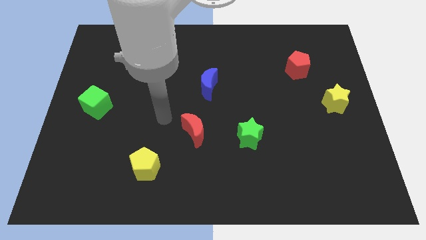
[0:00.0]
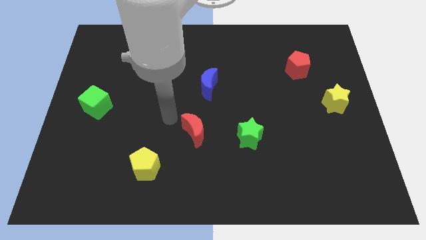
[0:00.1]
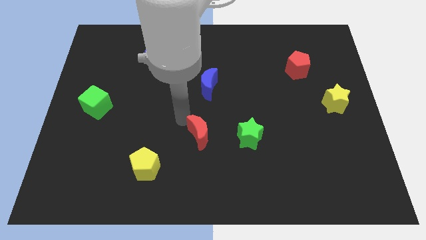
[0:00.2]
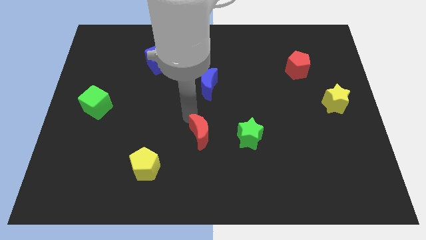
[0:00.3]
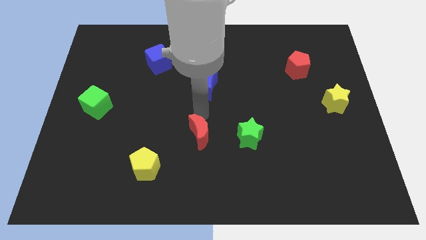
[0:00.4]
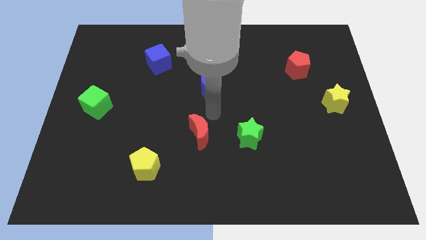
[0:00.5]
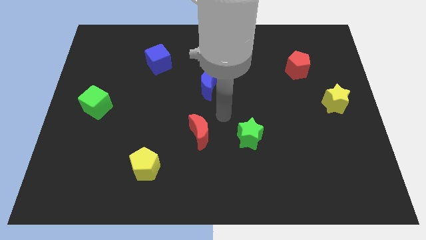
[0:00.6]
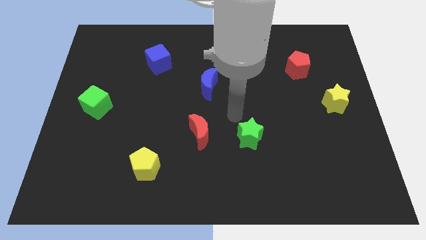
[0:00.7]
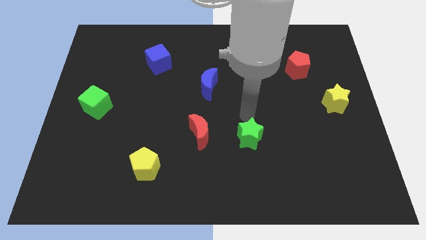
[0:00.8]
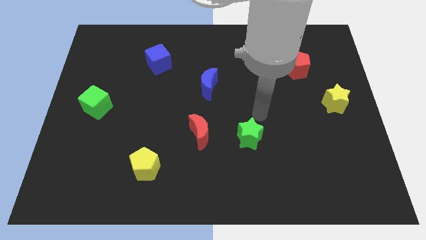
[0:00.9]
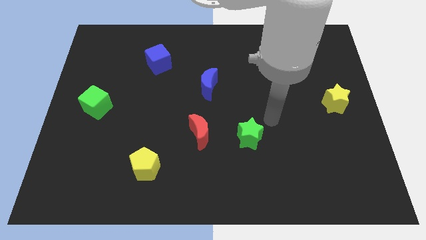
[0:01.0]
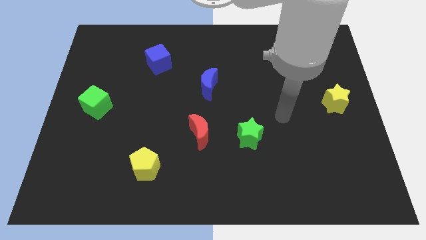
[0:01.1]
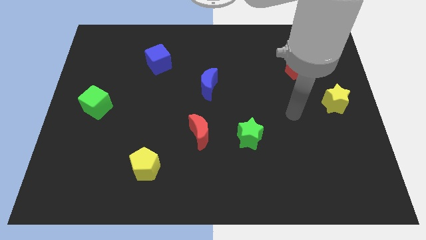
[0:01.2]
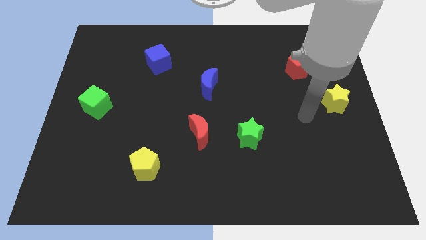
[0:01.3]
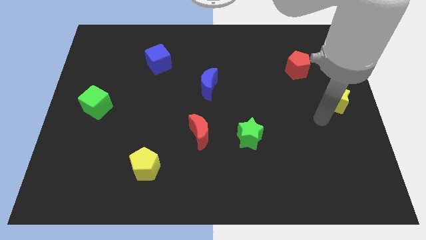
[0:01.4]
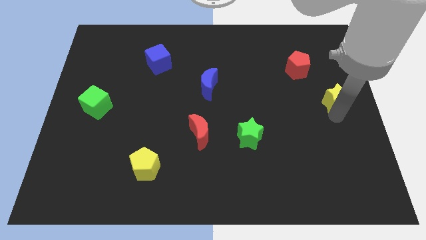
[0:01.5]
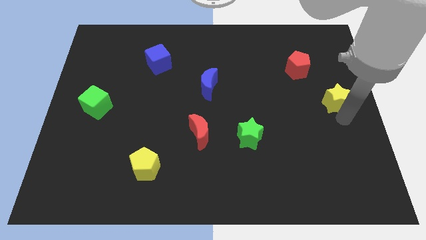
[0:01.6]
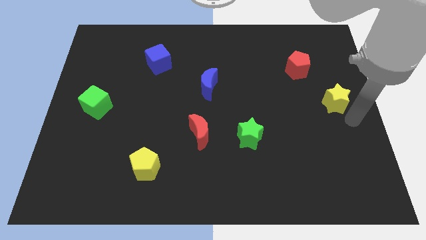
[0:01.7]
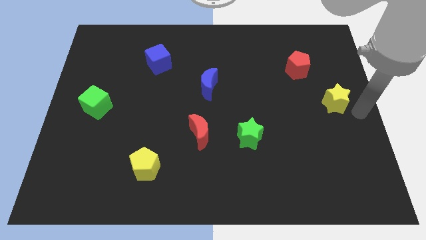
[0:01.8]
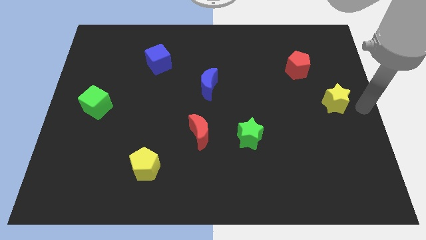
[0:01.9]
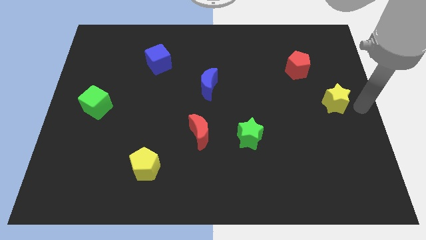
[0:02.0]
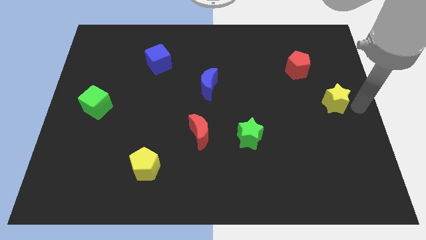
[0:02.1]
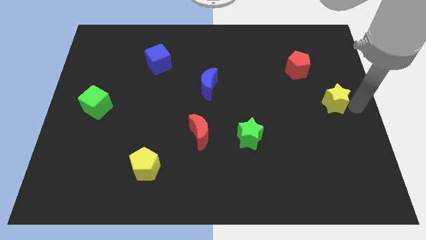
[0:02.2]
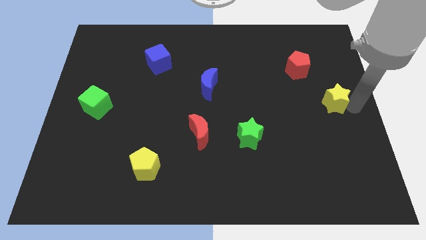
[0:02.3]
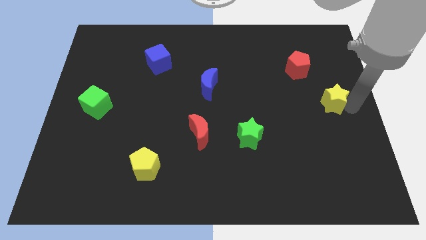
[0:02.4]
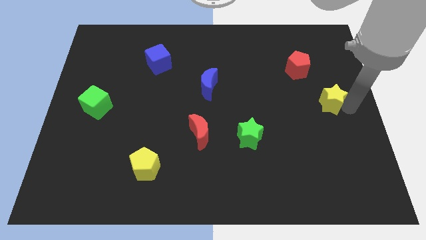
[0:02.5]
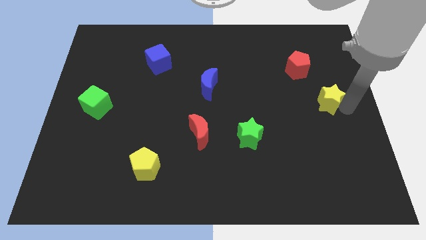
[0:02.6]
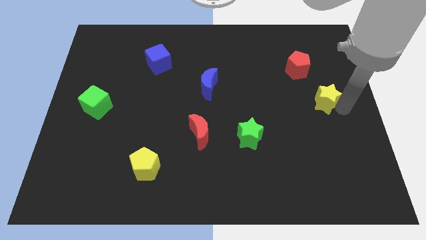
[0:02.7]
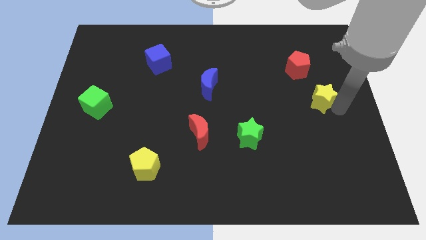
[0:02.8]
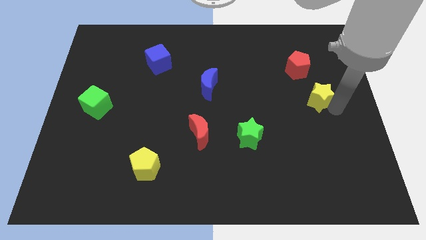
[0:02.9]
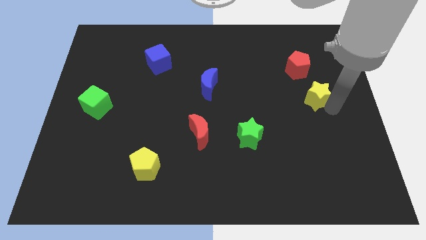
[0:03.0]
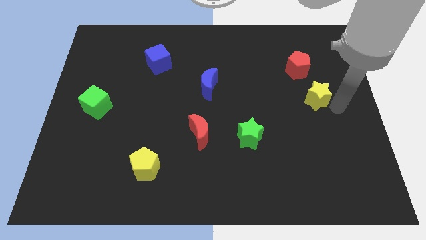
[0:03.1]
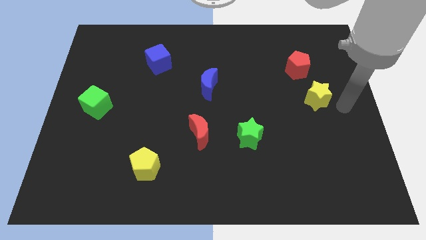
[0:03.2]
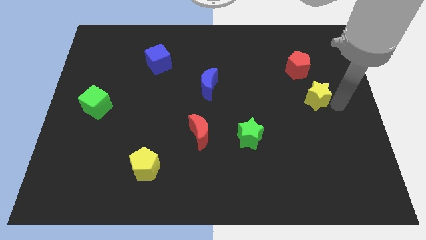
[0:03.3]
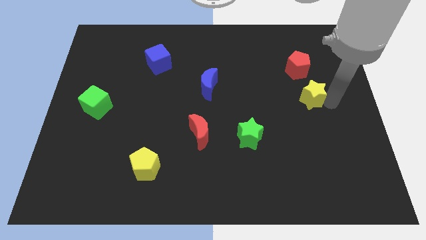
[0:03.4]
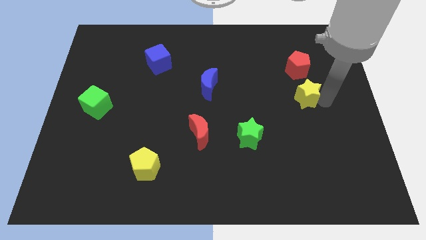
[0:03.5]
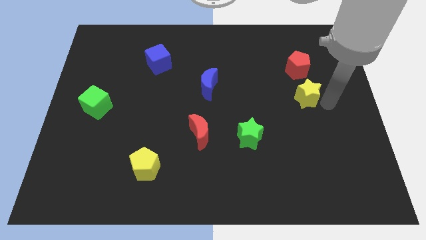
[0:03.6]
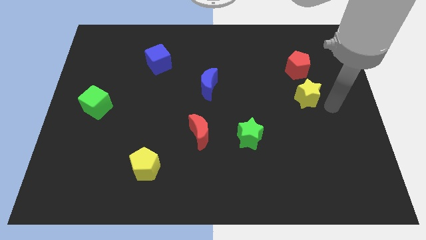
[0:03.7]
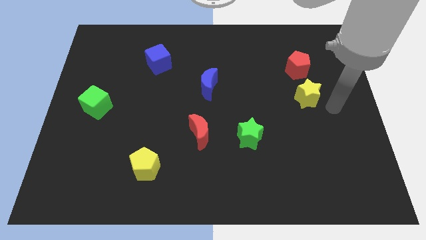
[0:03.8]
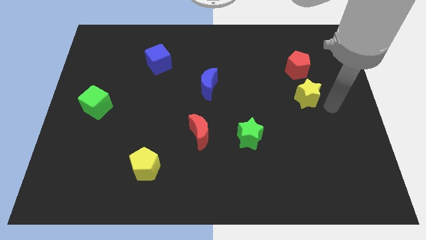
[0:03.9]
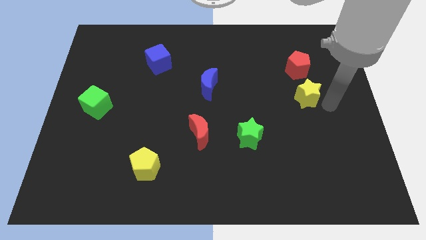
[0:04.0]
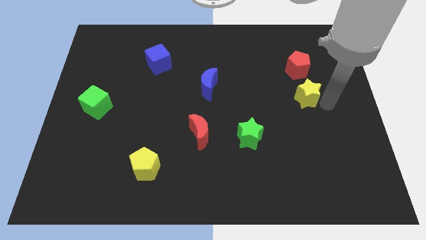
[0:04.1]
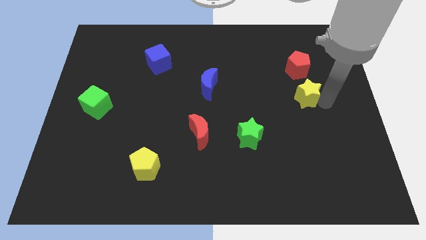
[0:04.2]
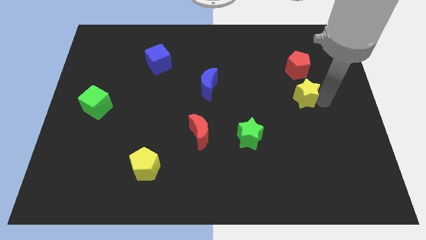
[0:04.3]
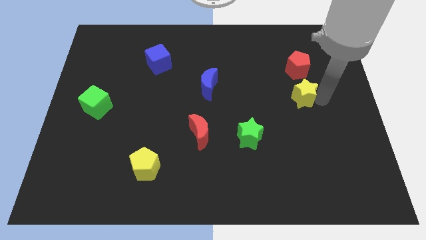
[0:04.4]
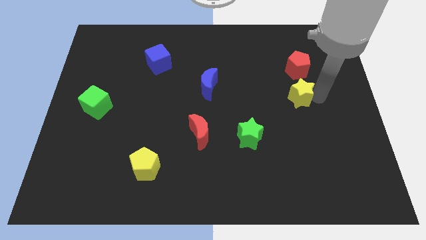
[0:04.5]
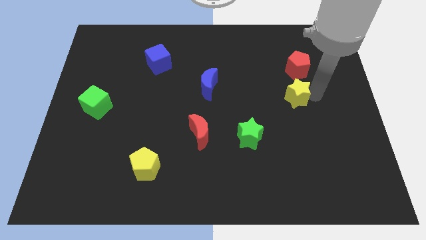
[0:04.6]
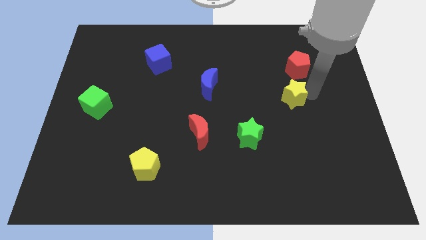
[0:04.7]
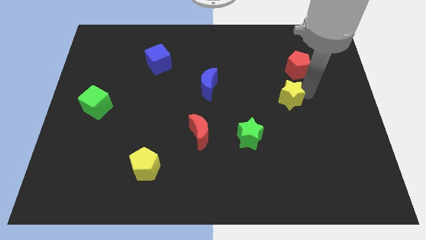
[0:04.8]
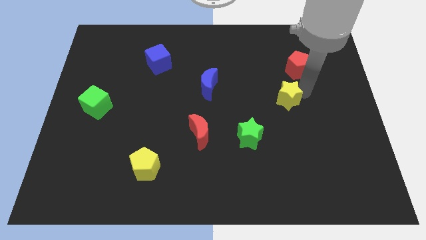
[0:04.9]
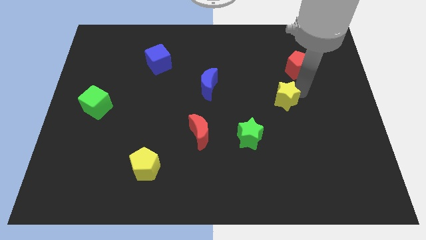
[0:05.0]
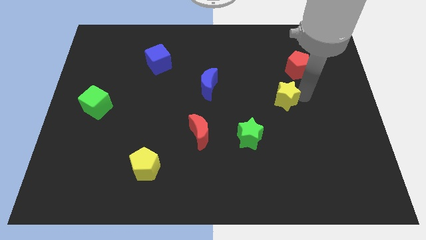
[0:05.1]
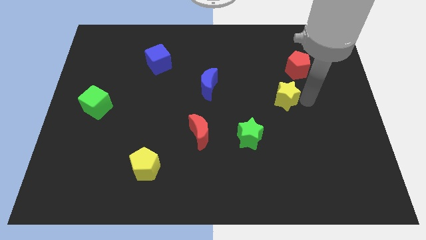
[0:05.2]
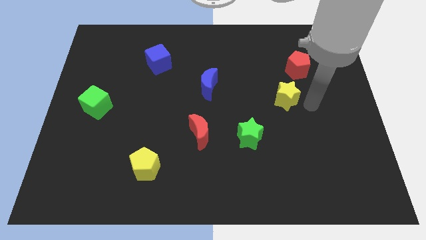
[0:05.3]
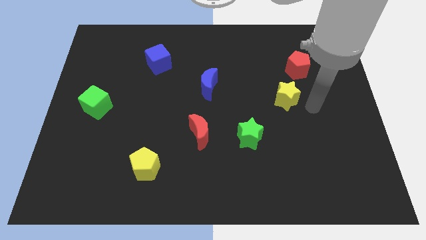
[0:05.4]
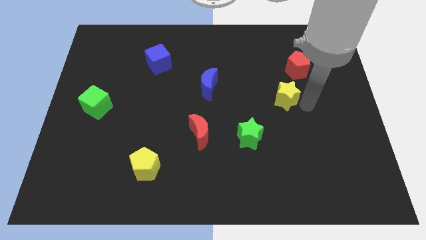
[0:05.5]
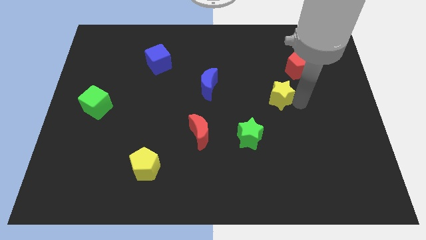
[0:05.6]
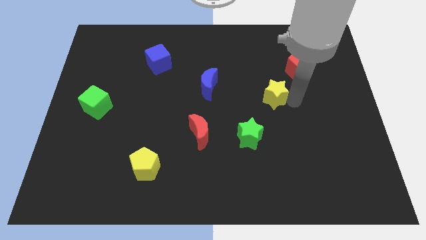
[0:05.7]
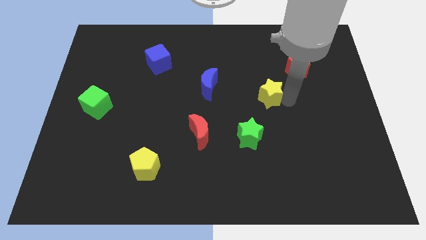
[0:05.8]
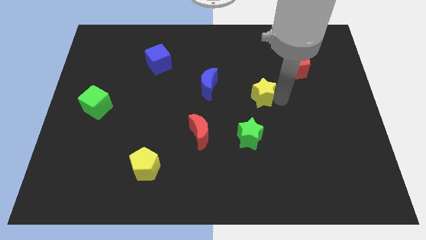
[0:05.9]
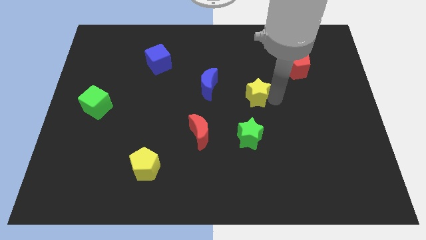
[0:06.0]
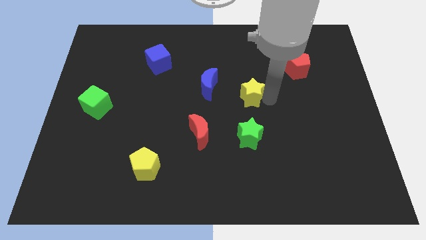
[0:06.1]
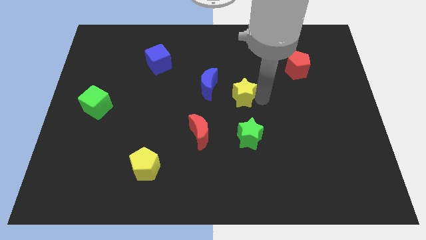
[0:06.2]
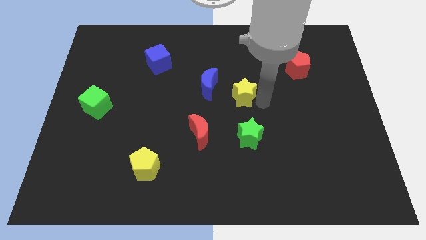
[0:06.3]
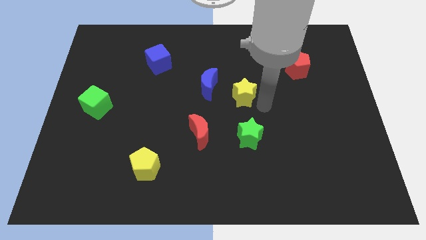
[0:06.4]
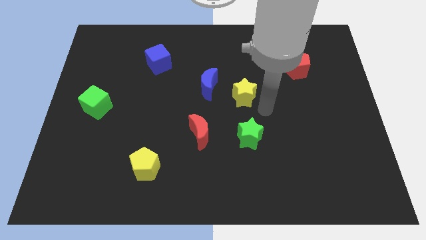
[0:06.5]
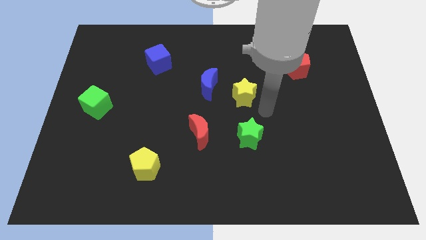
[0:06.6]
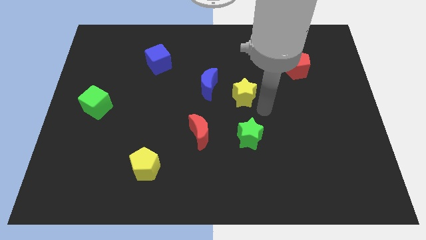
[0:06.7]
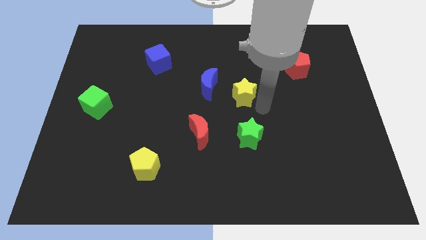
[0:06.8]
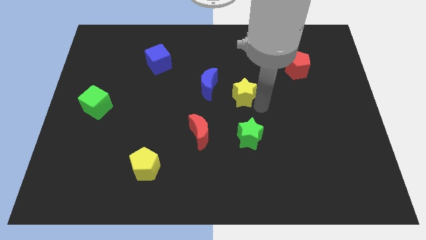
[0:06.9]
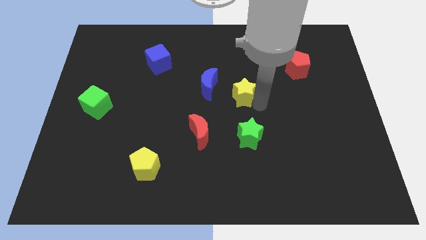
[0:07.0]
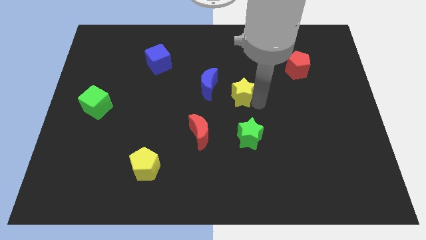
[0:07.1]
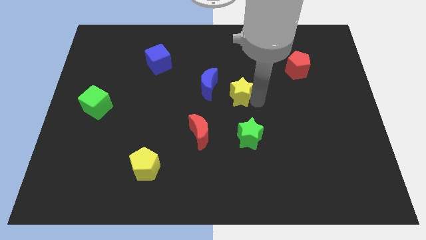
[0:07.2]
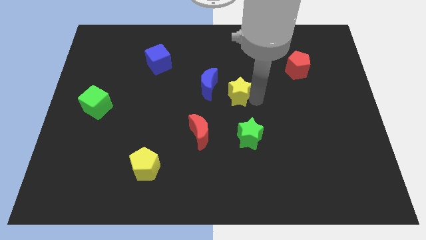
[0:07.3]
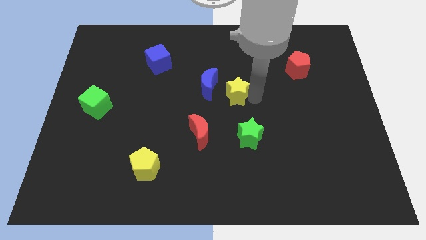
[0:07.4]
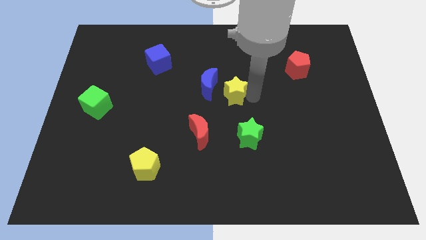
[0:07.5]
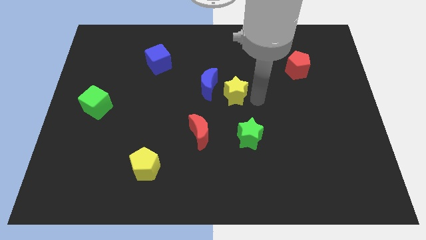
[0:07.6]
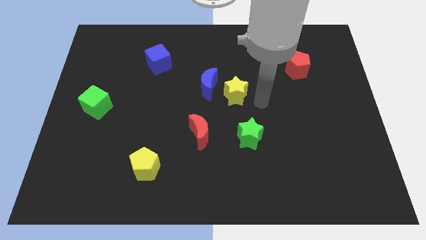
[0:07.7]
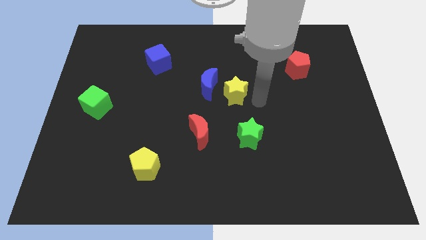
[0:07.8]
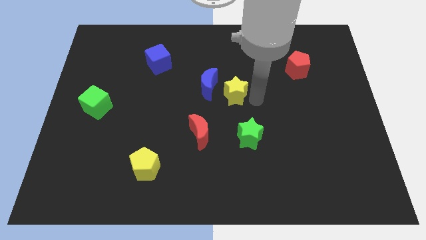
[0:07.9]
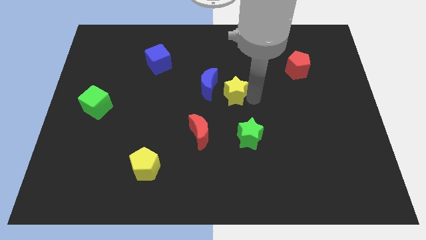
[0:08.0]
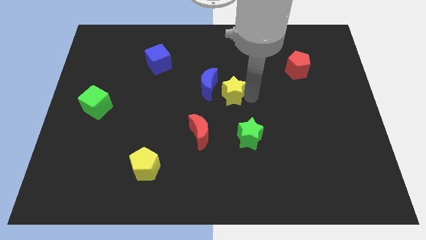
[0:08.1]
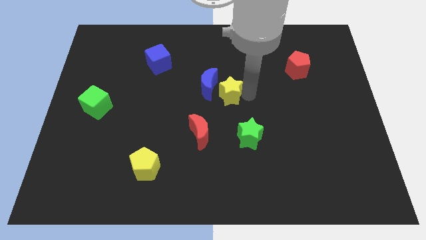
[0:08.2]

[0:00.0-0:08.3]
push the yellow star next to the blue moon
